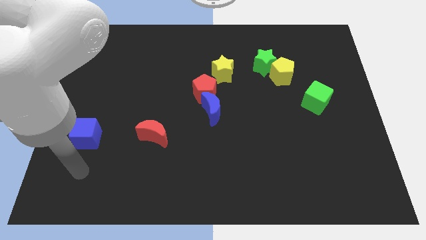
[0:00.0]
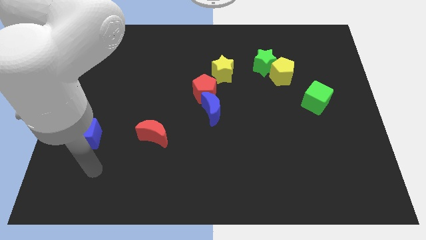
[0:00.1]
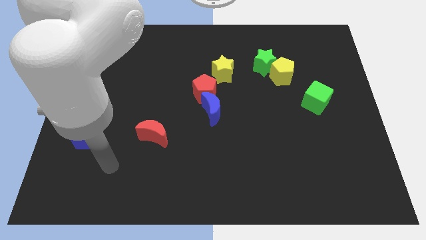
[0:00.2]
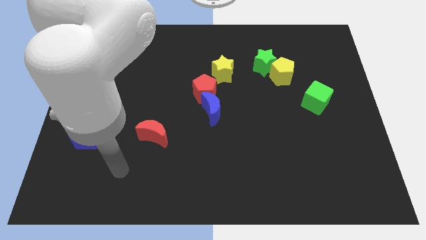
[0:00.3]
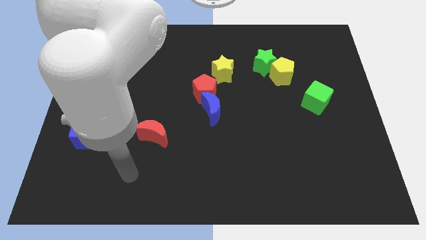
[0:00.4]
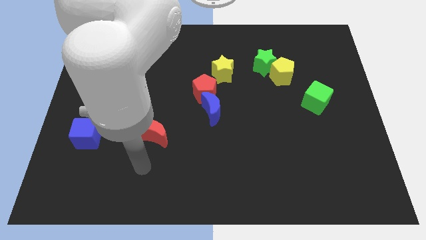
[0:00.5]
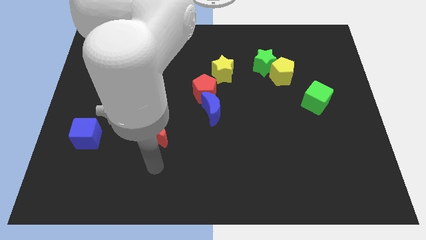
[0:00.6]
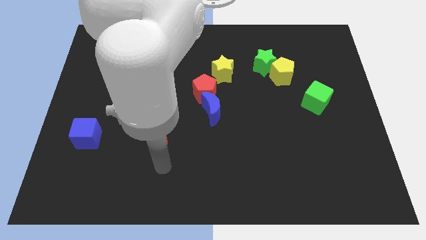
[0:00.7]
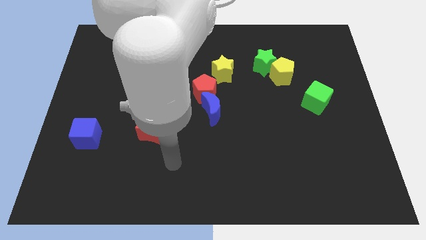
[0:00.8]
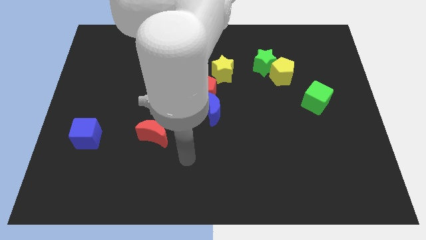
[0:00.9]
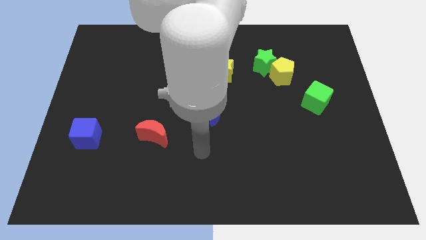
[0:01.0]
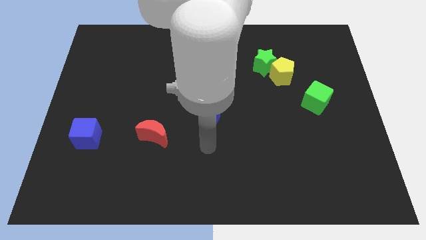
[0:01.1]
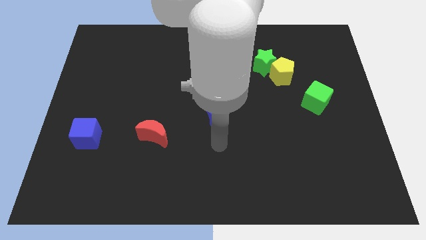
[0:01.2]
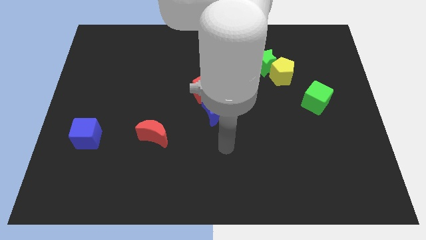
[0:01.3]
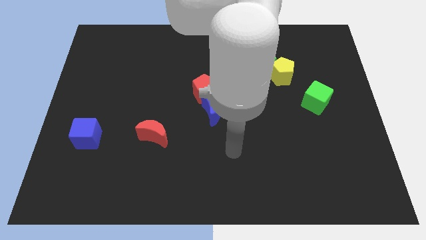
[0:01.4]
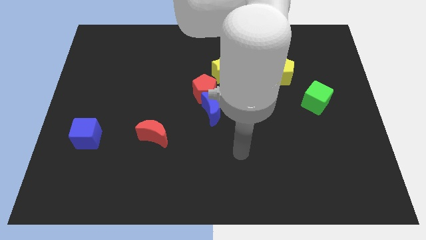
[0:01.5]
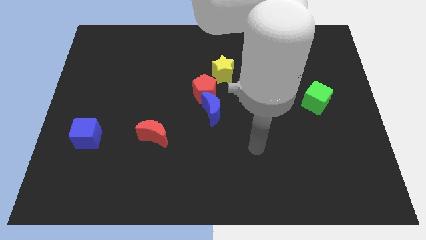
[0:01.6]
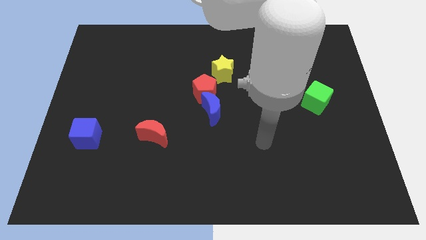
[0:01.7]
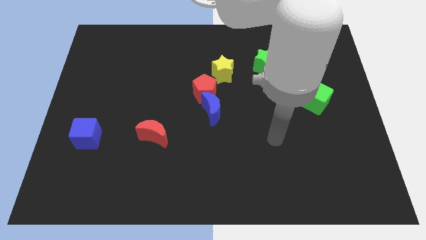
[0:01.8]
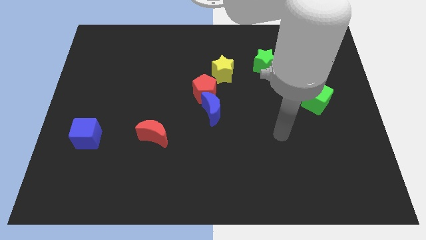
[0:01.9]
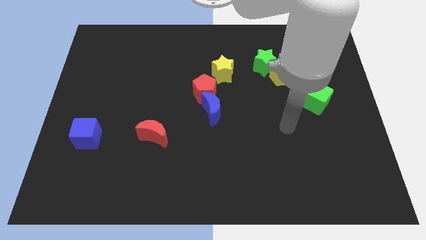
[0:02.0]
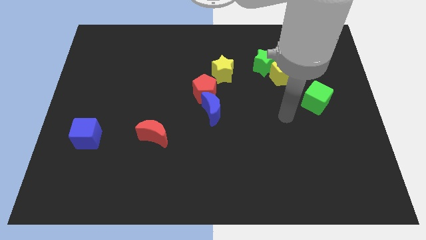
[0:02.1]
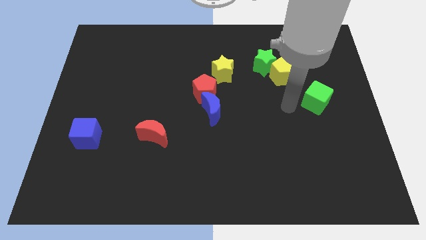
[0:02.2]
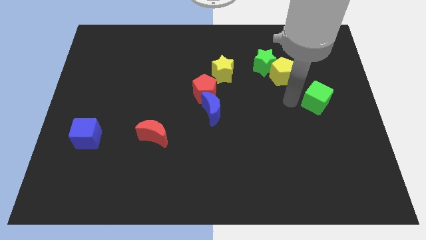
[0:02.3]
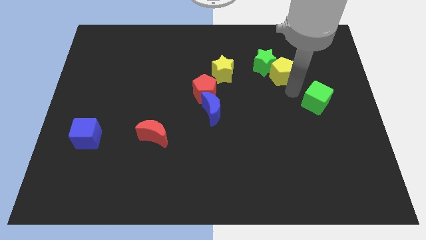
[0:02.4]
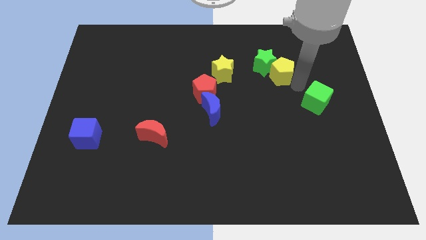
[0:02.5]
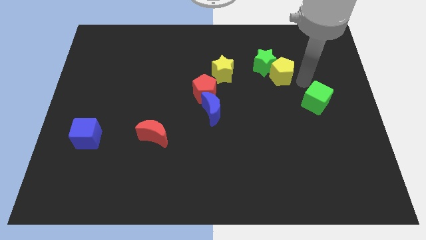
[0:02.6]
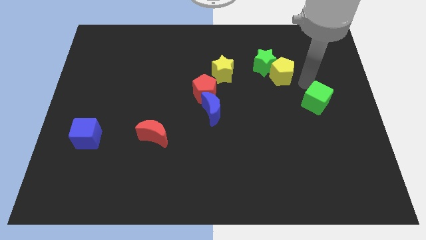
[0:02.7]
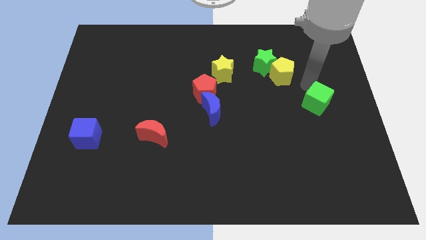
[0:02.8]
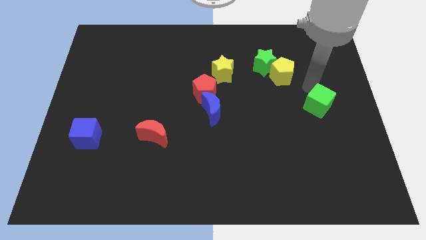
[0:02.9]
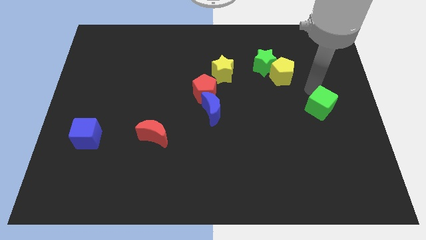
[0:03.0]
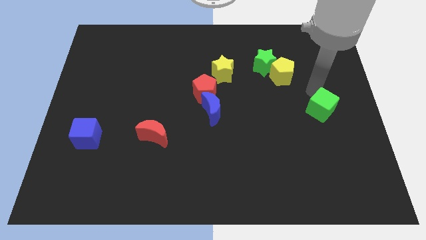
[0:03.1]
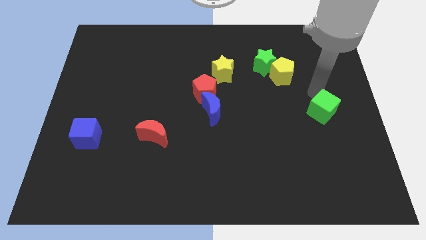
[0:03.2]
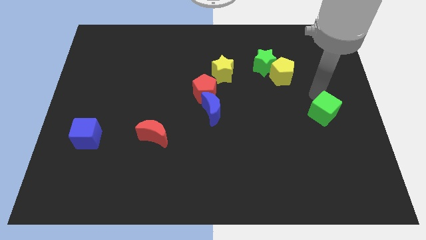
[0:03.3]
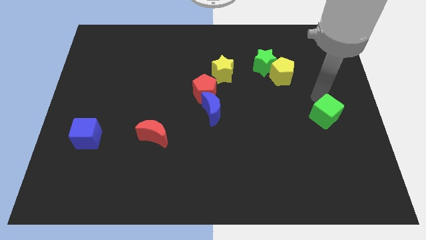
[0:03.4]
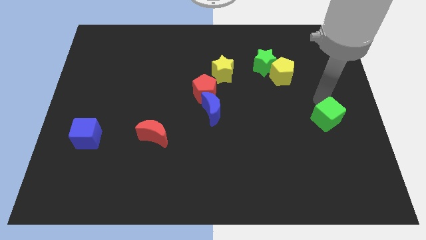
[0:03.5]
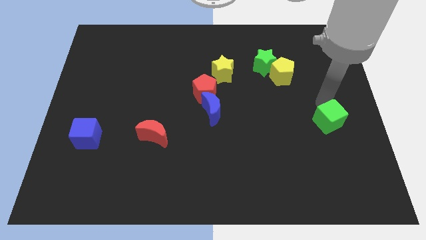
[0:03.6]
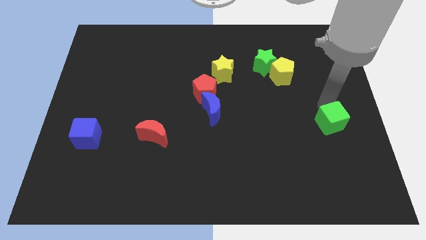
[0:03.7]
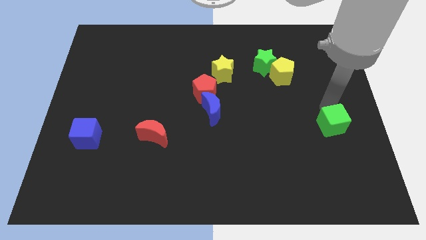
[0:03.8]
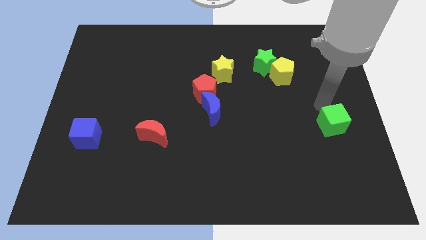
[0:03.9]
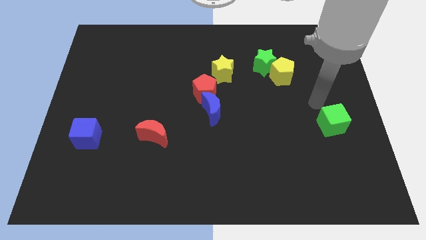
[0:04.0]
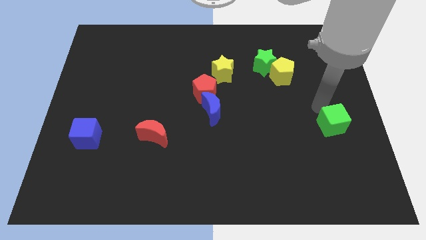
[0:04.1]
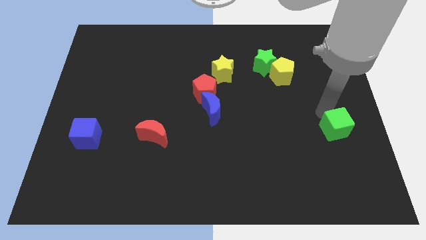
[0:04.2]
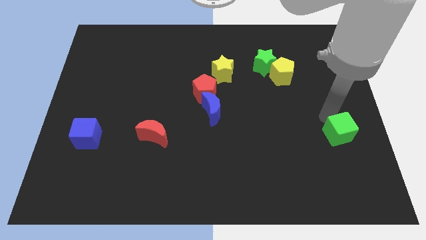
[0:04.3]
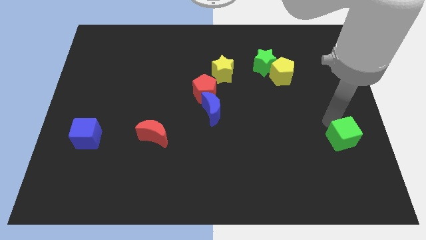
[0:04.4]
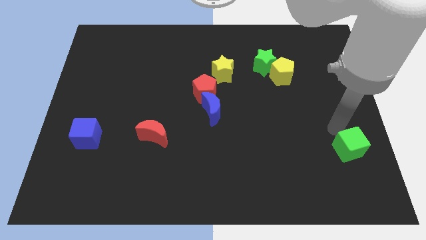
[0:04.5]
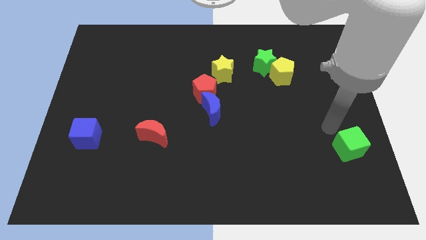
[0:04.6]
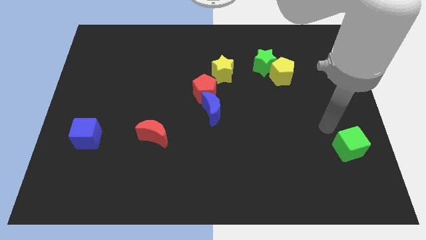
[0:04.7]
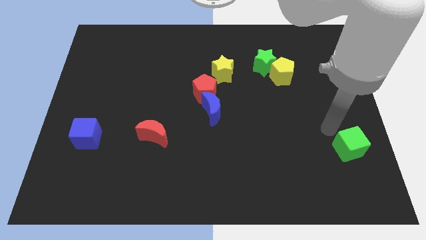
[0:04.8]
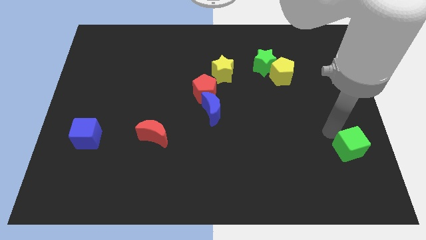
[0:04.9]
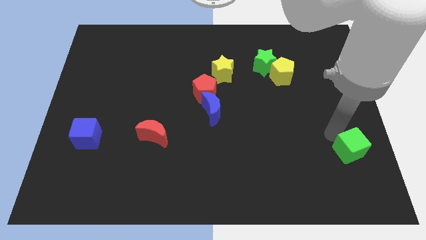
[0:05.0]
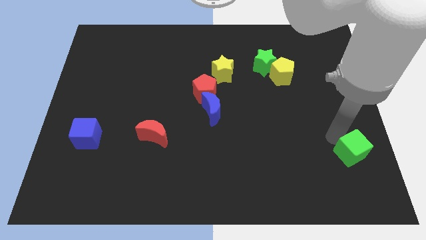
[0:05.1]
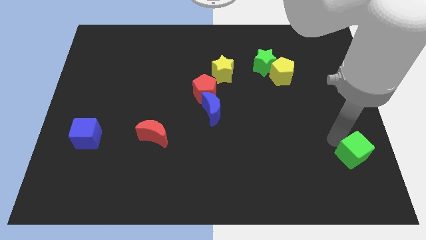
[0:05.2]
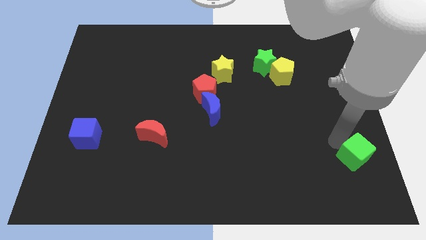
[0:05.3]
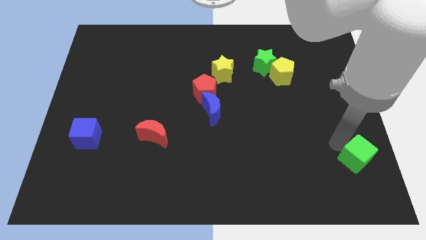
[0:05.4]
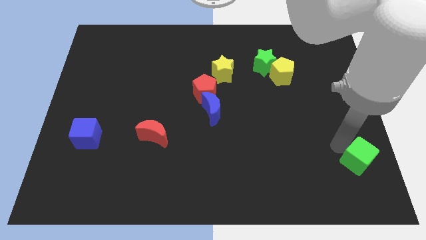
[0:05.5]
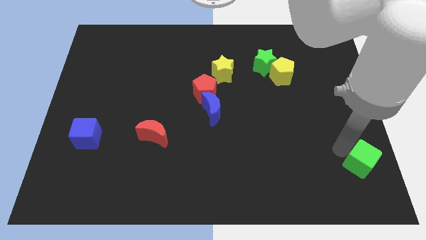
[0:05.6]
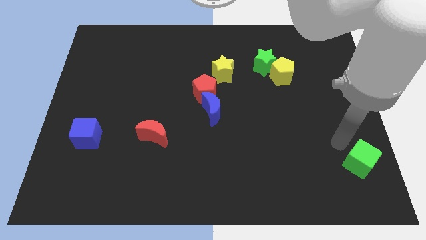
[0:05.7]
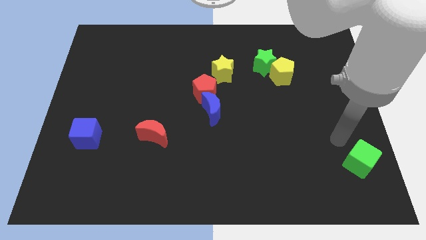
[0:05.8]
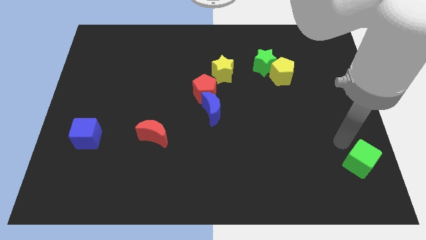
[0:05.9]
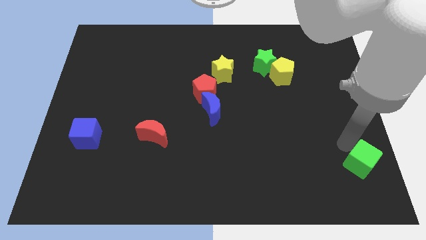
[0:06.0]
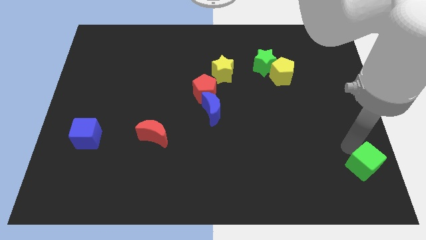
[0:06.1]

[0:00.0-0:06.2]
put the green cube to the bottom right corner

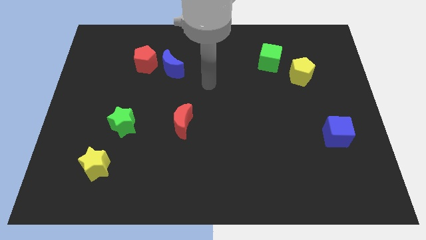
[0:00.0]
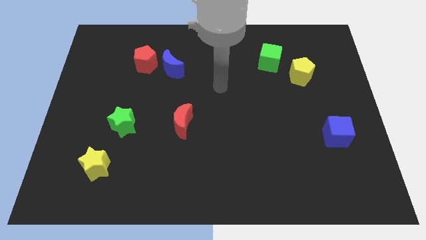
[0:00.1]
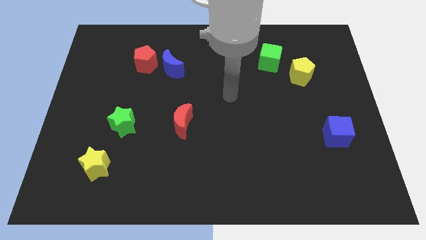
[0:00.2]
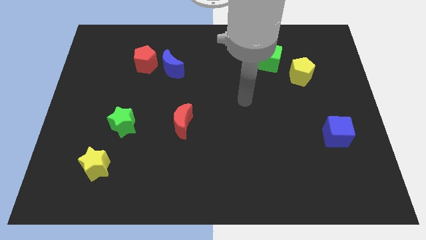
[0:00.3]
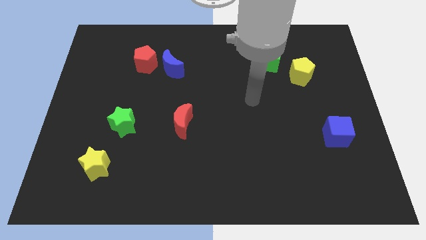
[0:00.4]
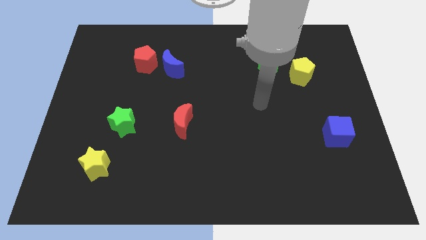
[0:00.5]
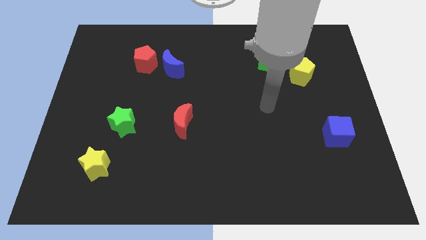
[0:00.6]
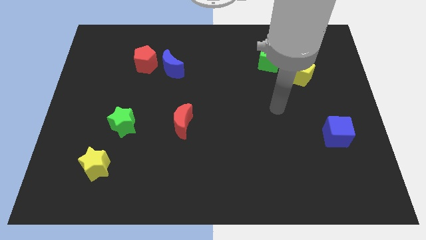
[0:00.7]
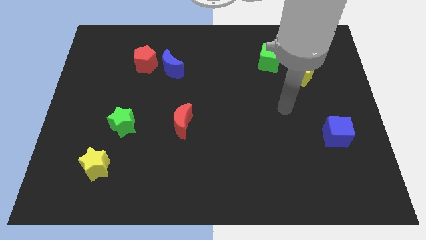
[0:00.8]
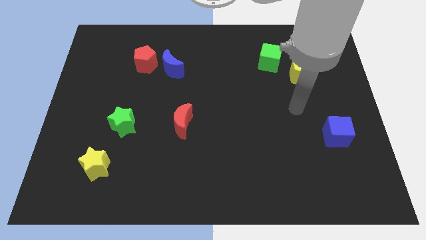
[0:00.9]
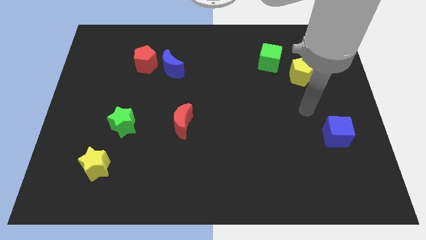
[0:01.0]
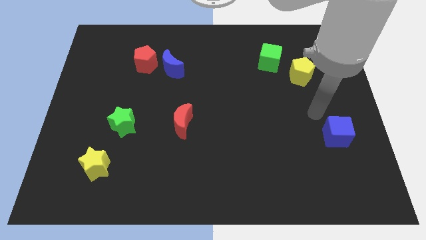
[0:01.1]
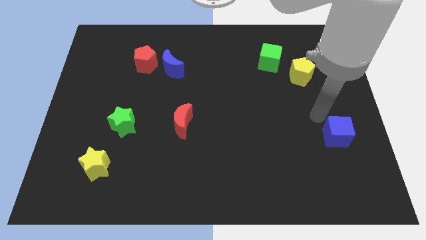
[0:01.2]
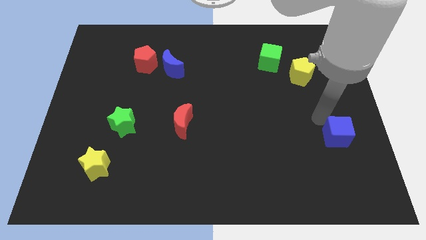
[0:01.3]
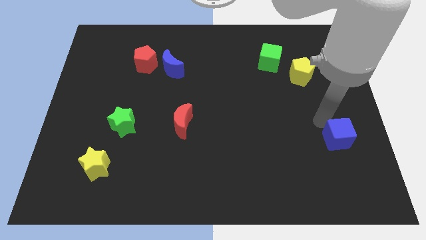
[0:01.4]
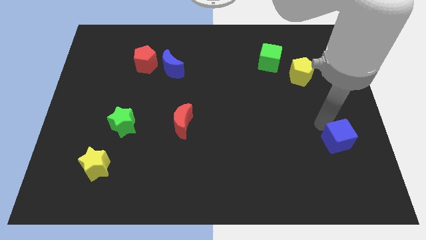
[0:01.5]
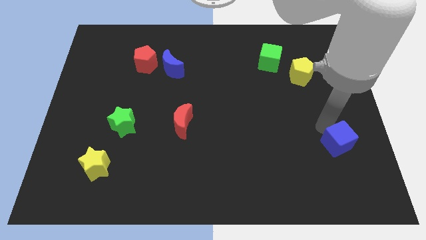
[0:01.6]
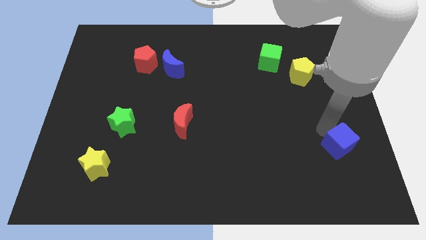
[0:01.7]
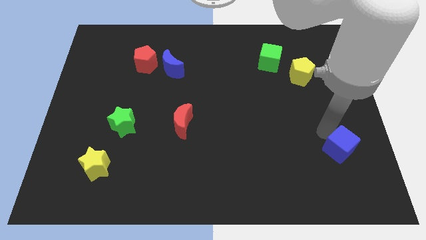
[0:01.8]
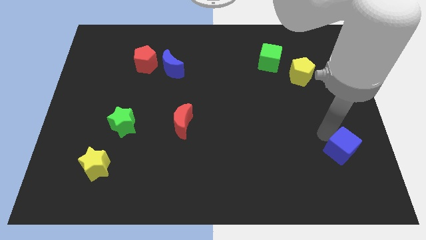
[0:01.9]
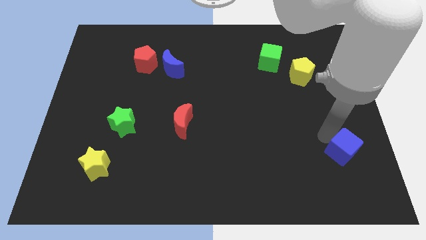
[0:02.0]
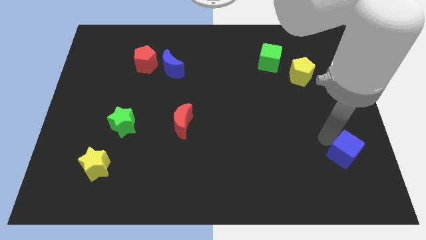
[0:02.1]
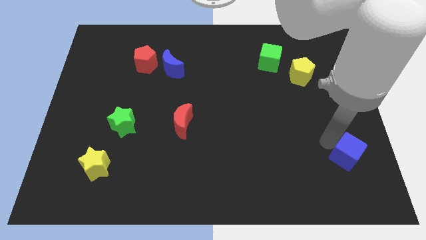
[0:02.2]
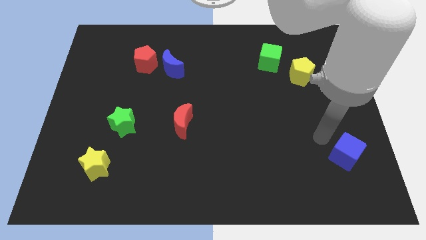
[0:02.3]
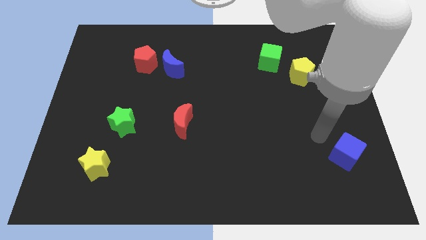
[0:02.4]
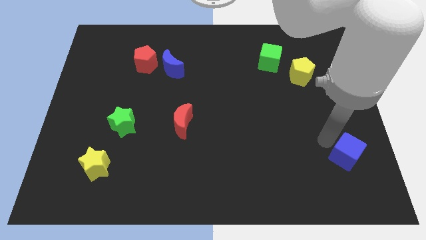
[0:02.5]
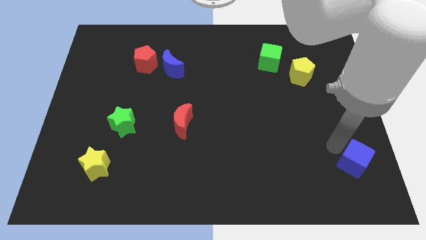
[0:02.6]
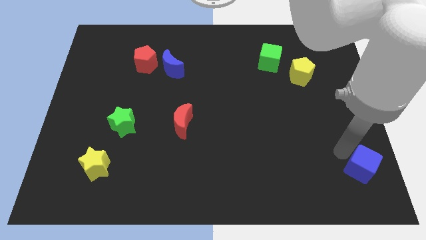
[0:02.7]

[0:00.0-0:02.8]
move the blue cube to the lower right corner
